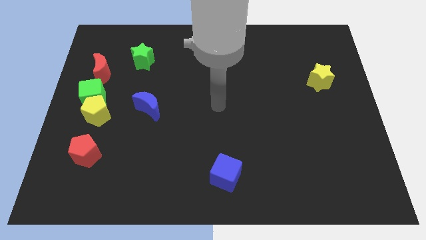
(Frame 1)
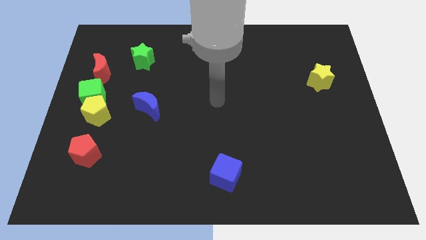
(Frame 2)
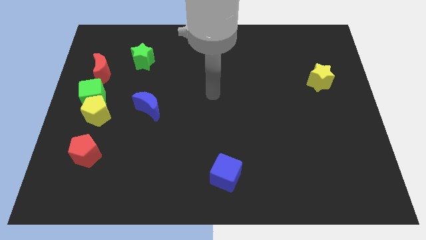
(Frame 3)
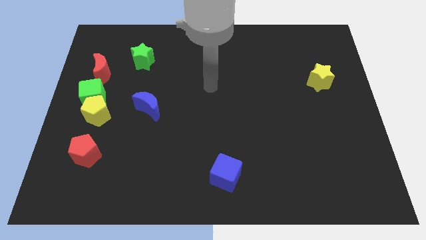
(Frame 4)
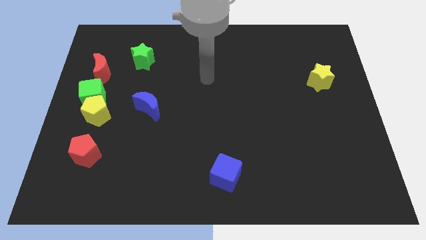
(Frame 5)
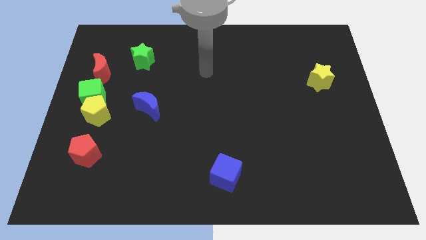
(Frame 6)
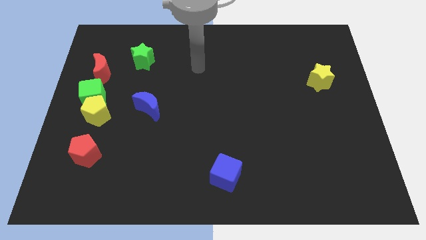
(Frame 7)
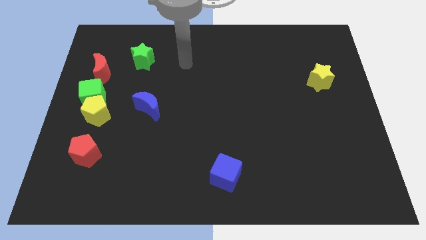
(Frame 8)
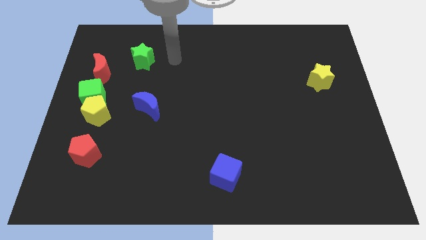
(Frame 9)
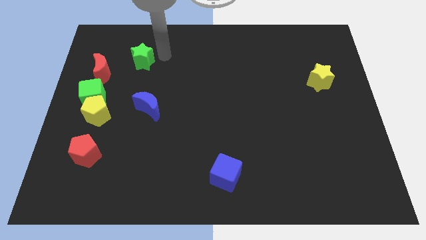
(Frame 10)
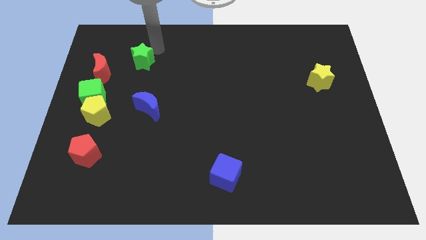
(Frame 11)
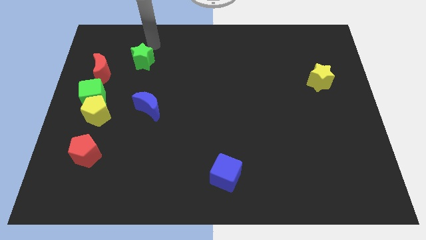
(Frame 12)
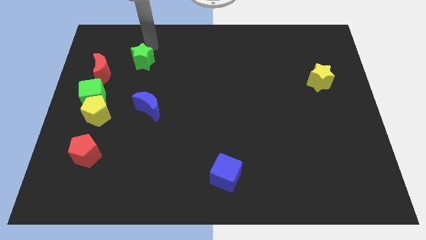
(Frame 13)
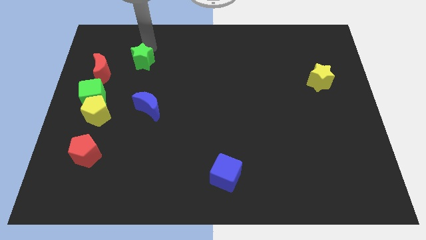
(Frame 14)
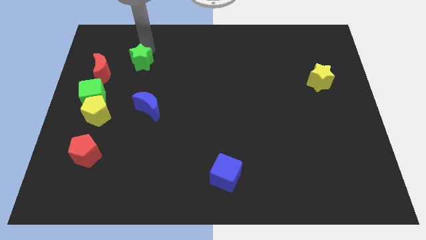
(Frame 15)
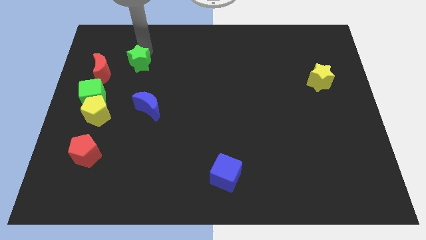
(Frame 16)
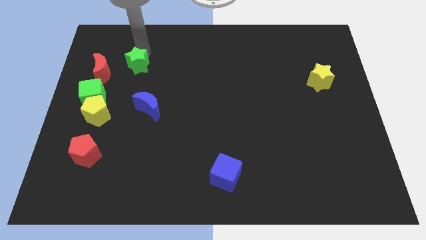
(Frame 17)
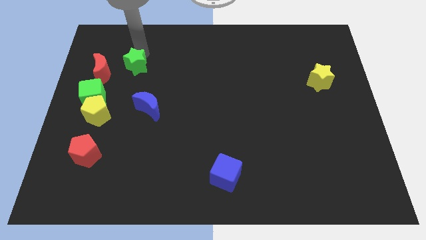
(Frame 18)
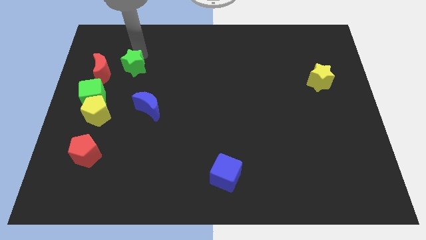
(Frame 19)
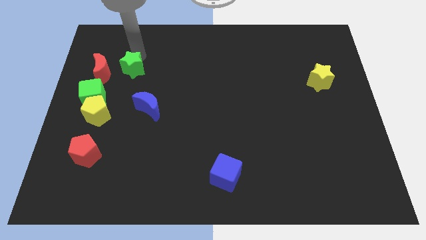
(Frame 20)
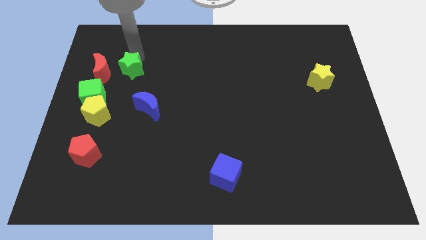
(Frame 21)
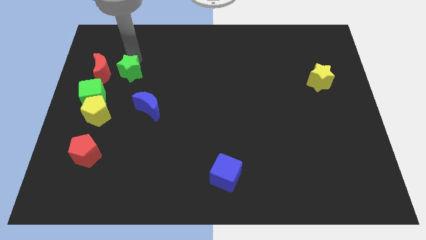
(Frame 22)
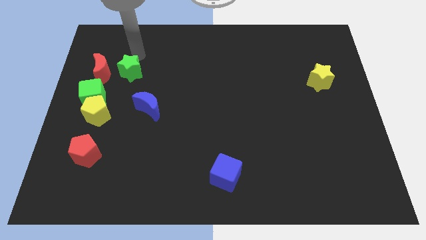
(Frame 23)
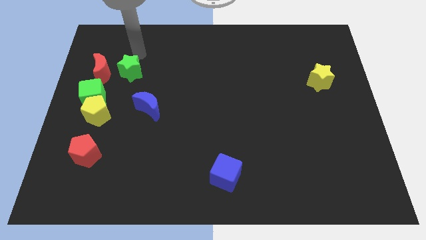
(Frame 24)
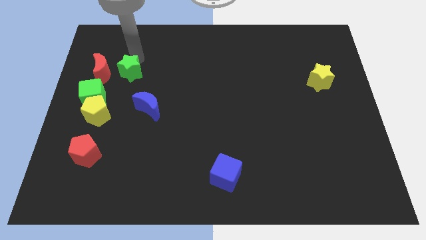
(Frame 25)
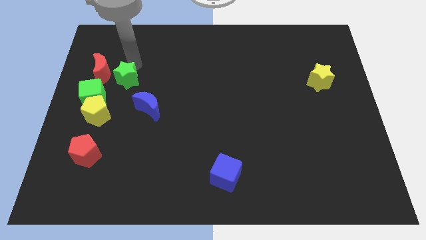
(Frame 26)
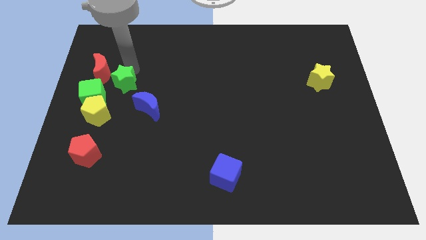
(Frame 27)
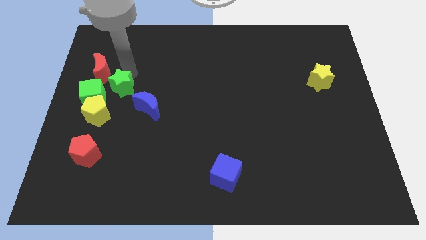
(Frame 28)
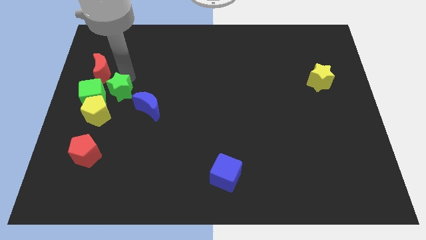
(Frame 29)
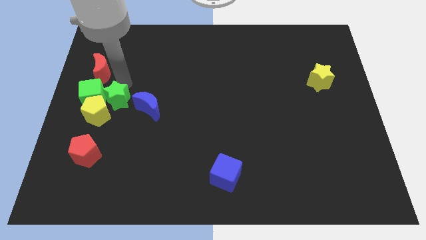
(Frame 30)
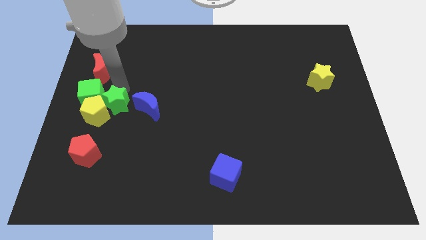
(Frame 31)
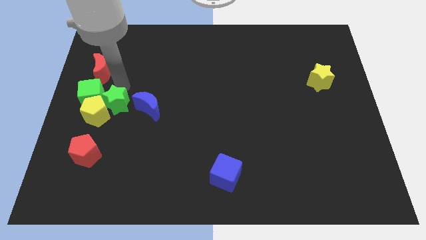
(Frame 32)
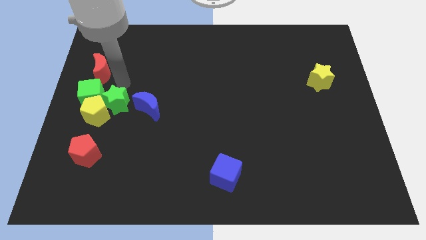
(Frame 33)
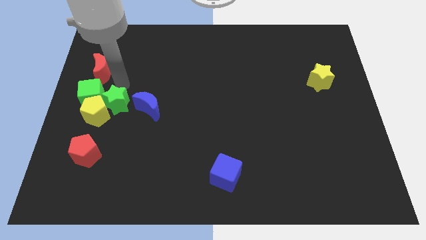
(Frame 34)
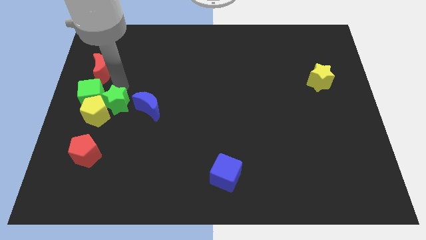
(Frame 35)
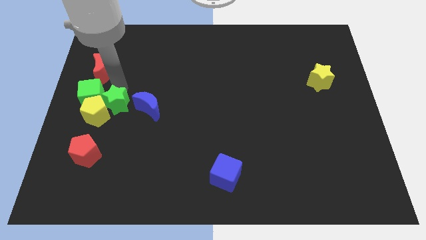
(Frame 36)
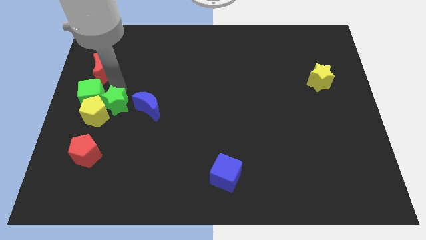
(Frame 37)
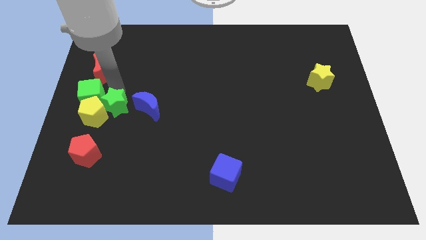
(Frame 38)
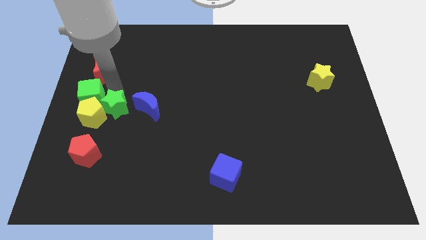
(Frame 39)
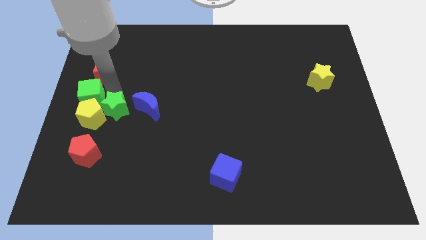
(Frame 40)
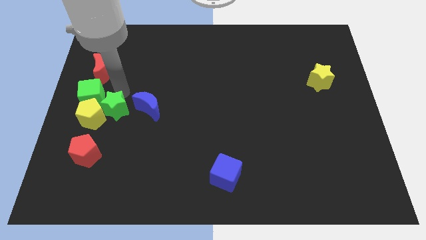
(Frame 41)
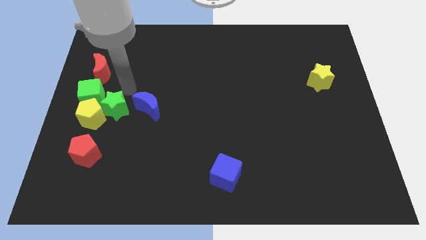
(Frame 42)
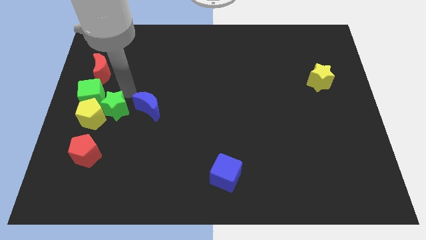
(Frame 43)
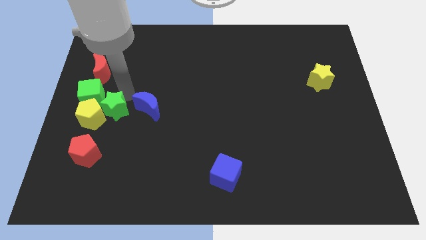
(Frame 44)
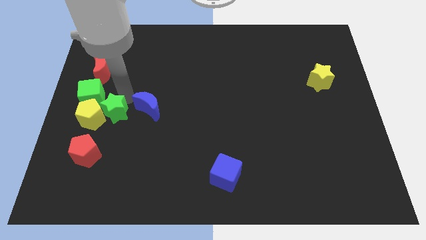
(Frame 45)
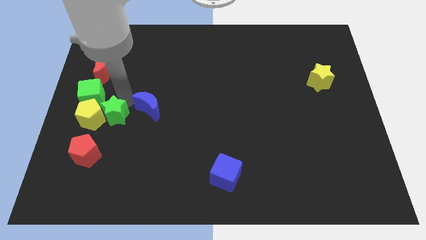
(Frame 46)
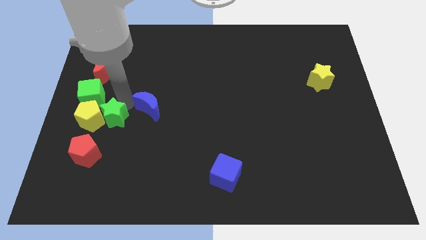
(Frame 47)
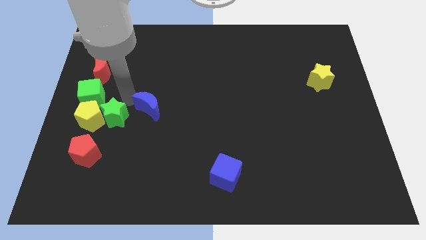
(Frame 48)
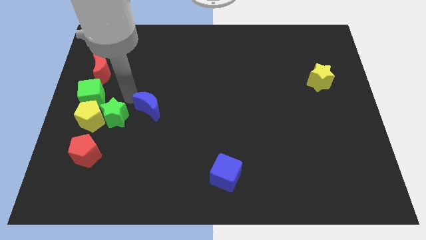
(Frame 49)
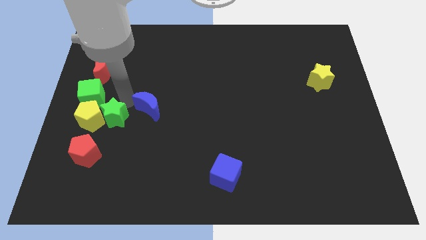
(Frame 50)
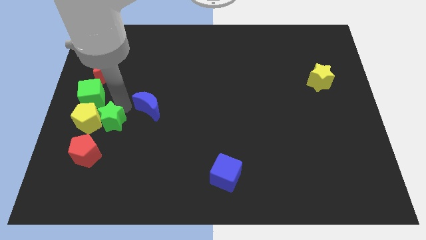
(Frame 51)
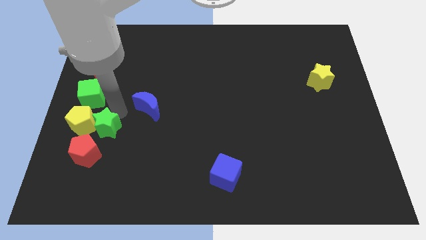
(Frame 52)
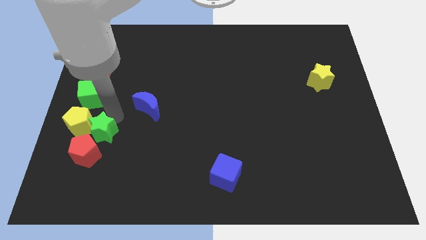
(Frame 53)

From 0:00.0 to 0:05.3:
move the green star close to the red pentagon

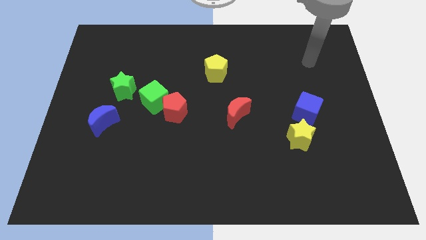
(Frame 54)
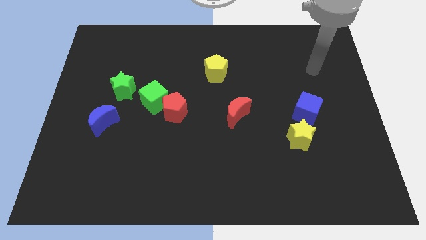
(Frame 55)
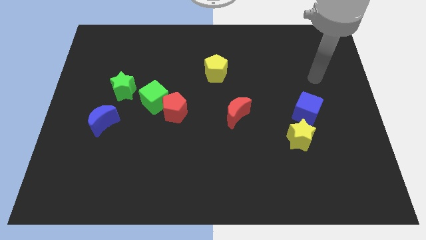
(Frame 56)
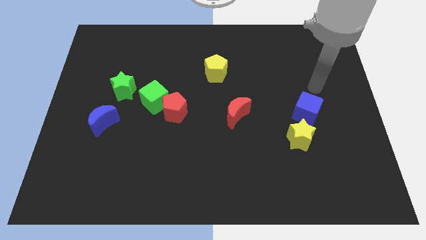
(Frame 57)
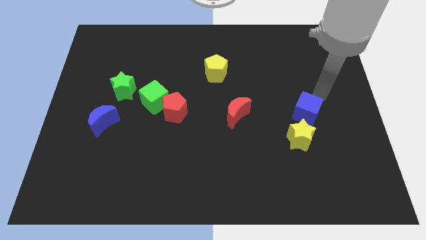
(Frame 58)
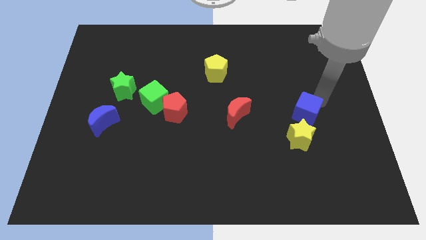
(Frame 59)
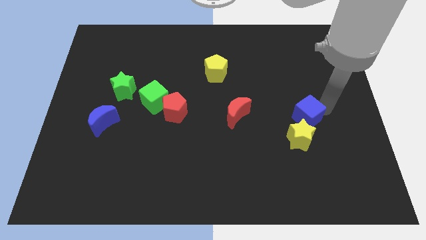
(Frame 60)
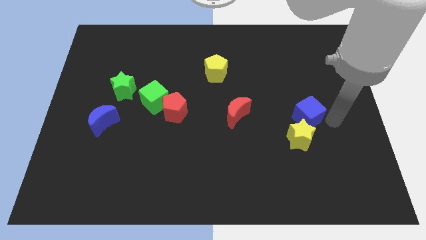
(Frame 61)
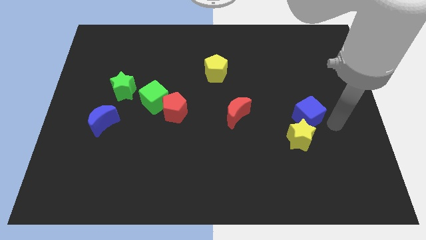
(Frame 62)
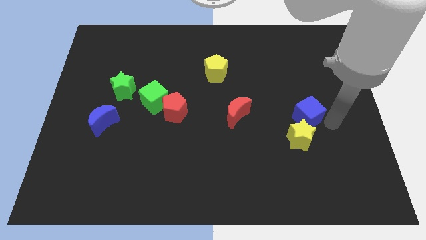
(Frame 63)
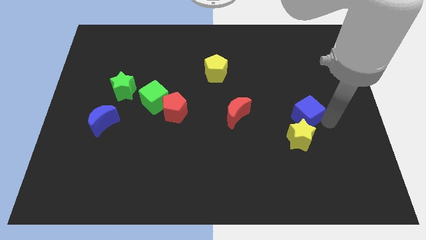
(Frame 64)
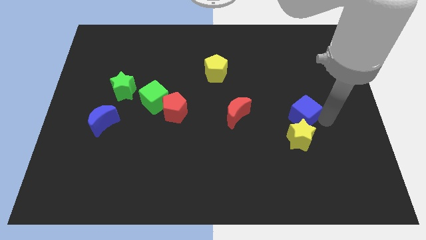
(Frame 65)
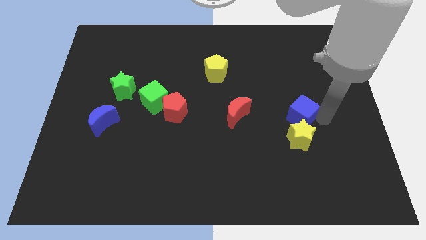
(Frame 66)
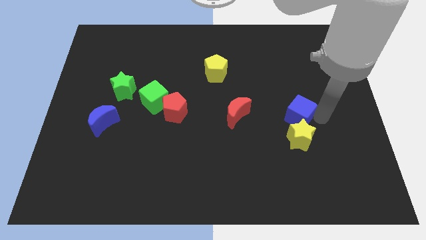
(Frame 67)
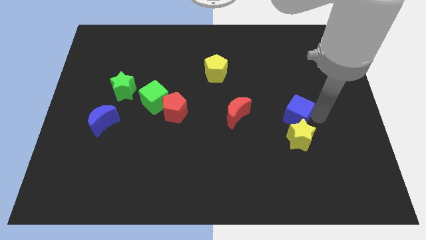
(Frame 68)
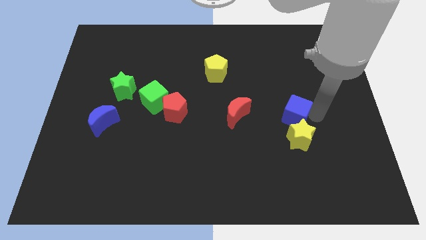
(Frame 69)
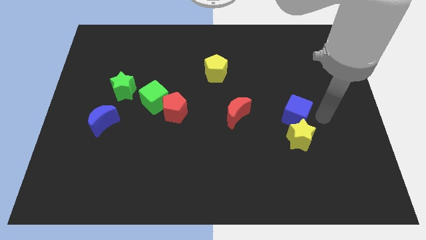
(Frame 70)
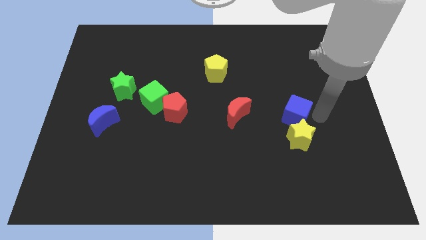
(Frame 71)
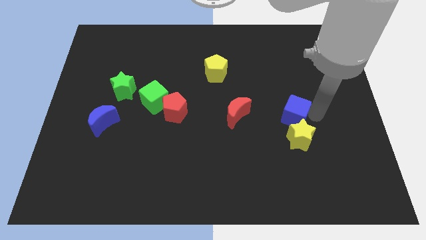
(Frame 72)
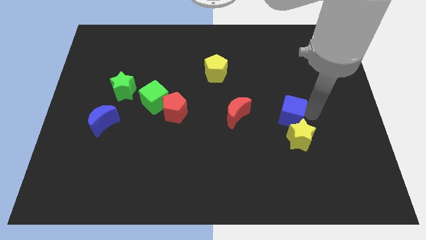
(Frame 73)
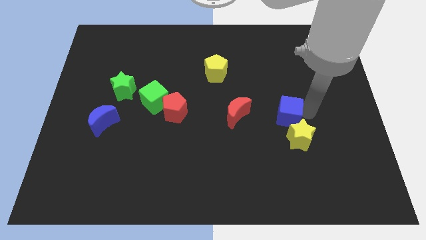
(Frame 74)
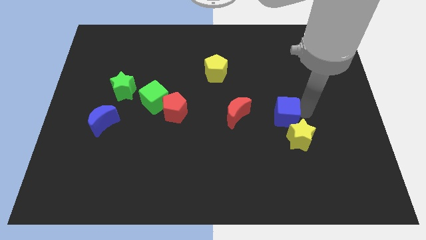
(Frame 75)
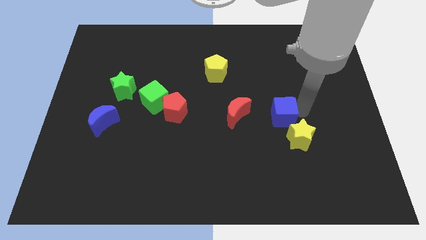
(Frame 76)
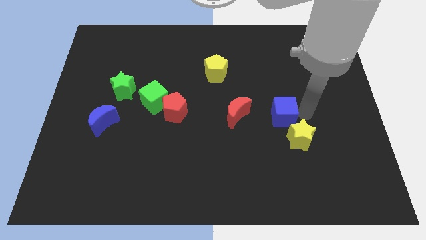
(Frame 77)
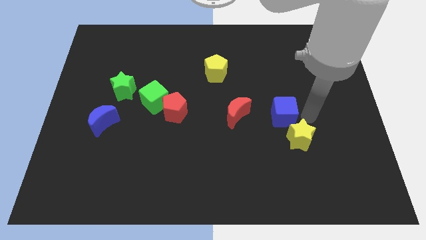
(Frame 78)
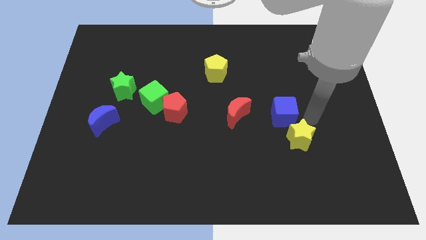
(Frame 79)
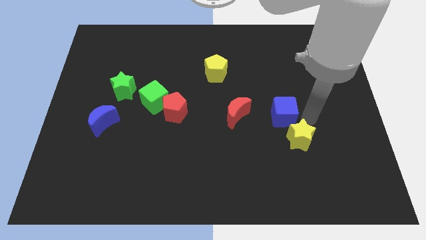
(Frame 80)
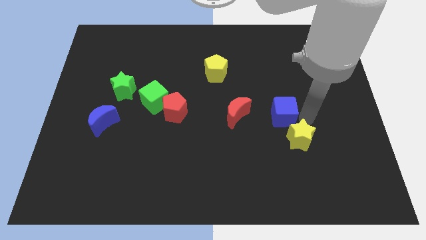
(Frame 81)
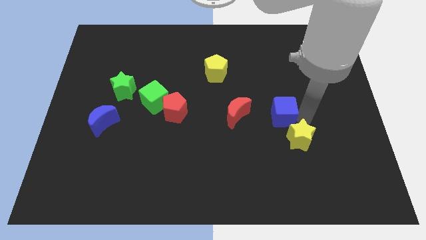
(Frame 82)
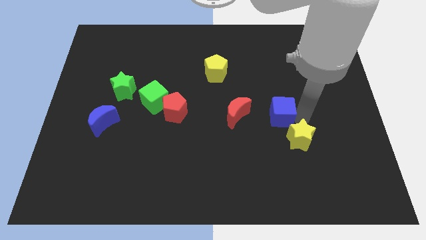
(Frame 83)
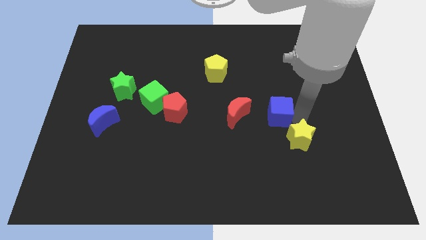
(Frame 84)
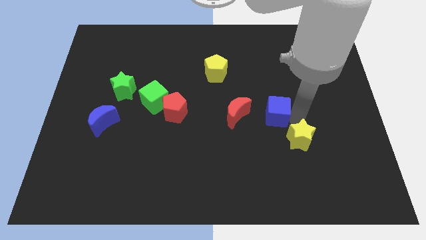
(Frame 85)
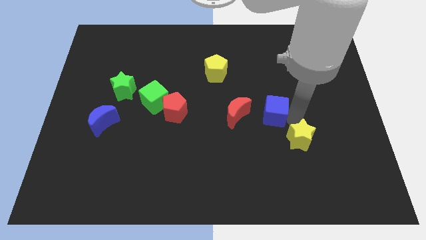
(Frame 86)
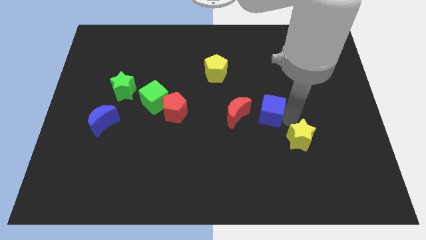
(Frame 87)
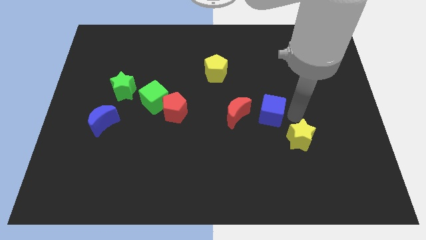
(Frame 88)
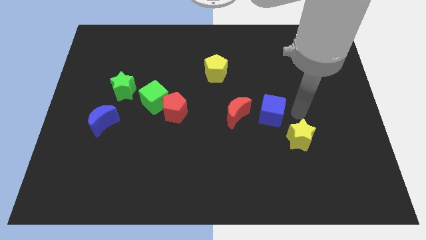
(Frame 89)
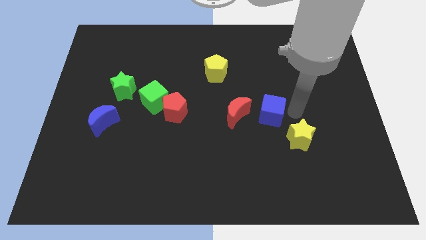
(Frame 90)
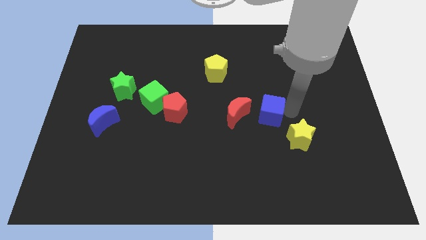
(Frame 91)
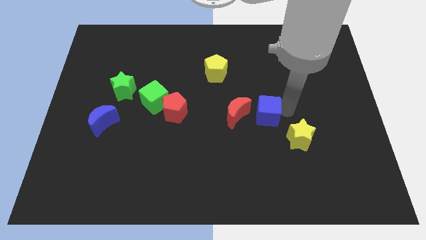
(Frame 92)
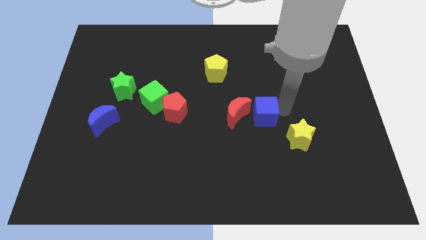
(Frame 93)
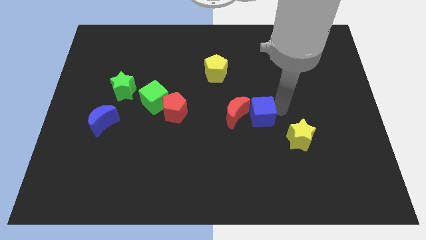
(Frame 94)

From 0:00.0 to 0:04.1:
move the blue cube to the red moon
